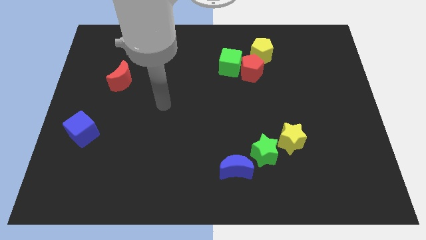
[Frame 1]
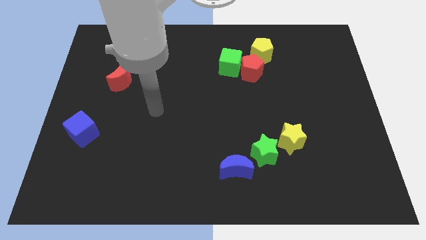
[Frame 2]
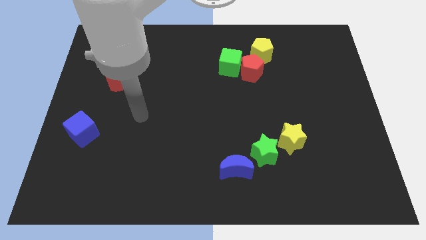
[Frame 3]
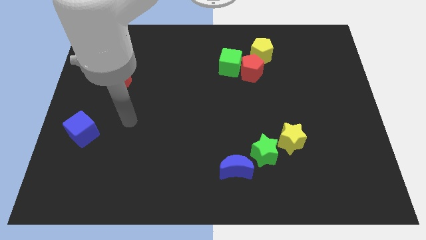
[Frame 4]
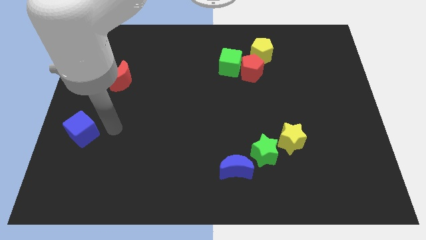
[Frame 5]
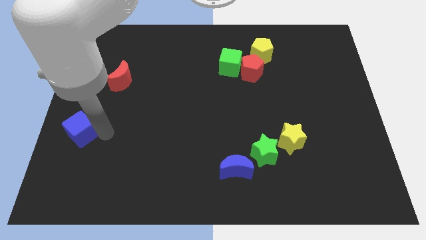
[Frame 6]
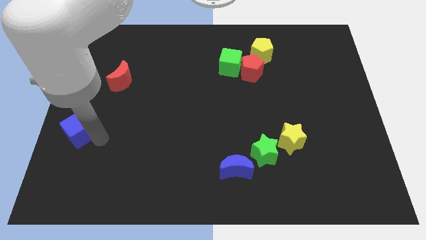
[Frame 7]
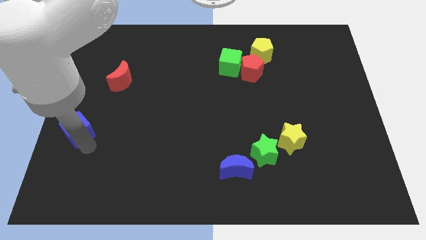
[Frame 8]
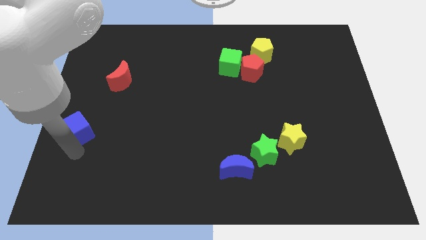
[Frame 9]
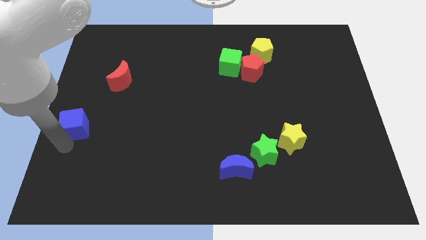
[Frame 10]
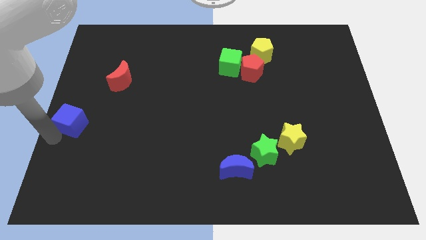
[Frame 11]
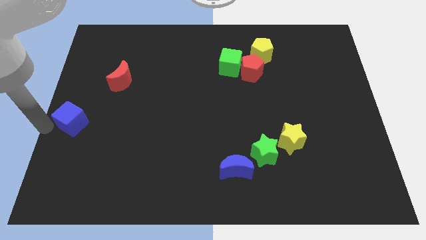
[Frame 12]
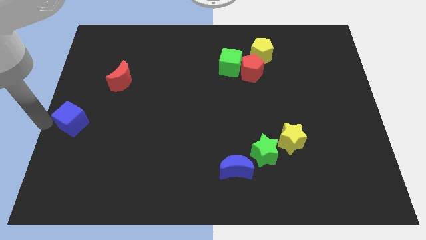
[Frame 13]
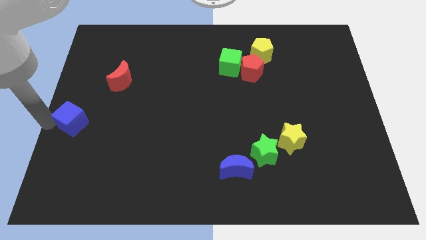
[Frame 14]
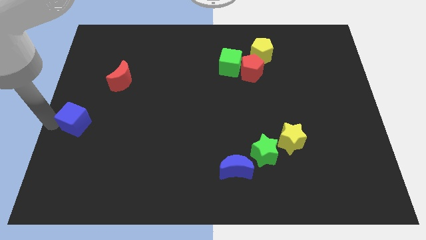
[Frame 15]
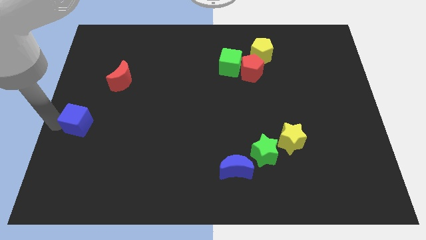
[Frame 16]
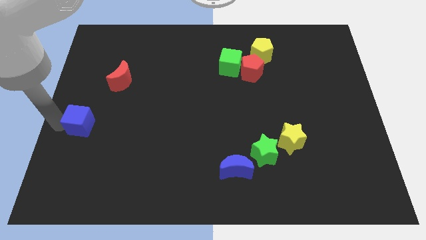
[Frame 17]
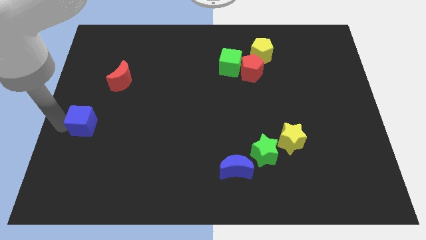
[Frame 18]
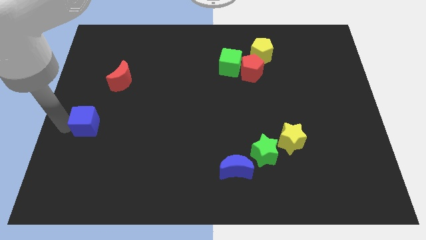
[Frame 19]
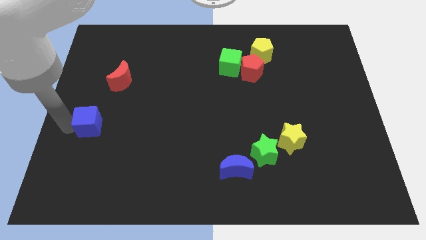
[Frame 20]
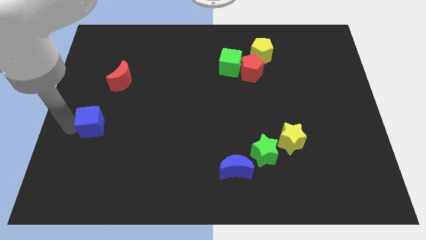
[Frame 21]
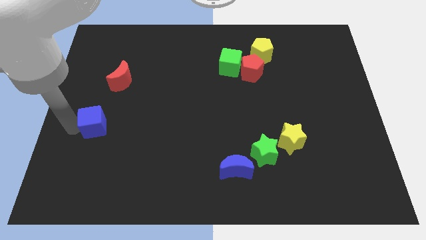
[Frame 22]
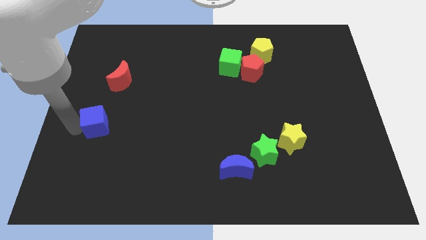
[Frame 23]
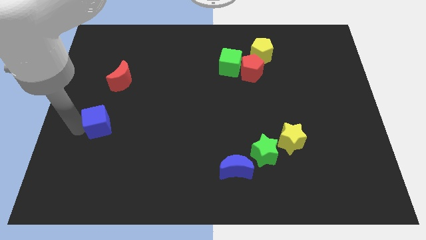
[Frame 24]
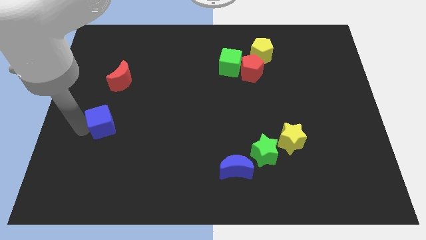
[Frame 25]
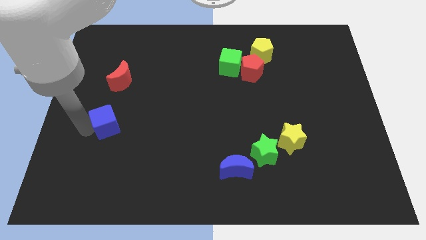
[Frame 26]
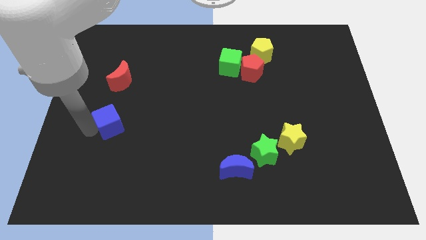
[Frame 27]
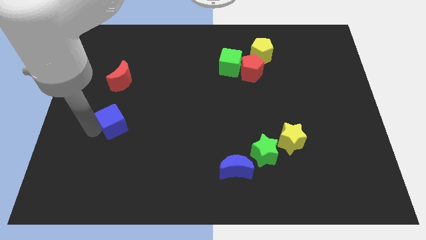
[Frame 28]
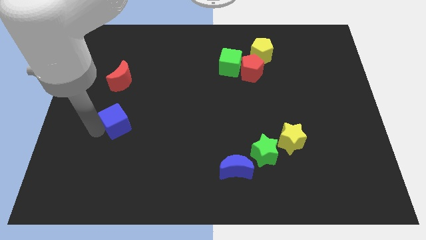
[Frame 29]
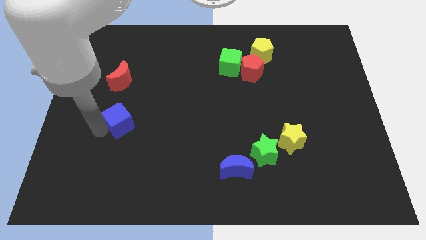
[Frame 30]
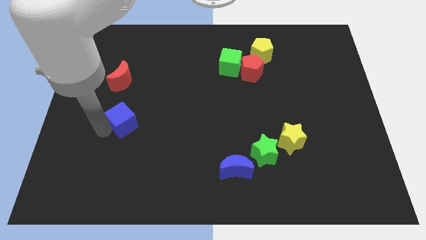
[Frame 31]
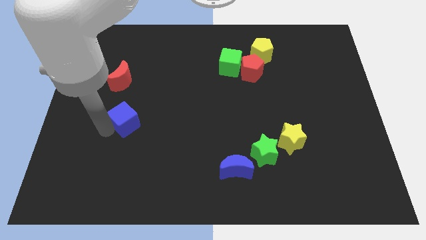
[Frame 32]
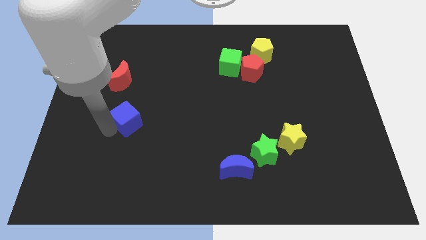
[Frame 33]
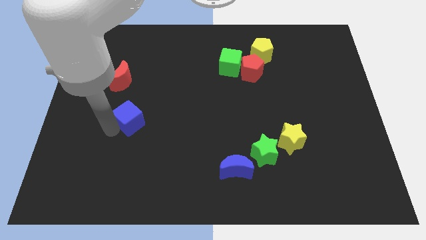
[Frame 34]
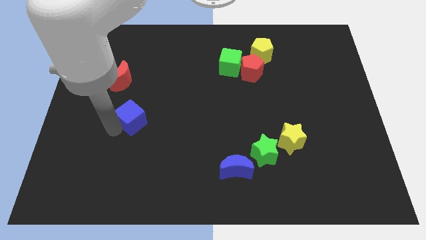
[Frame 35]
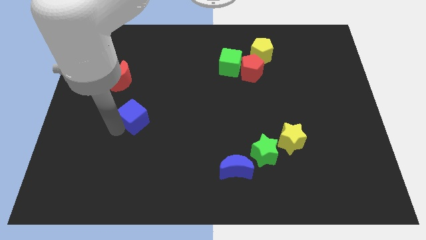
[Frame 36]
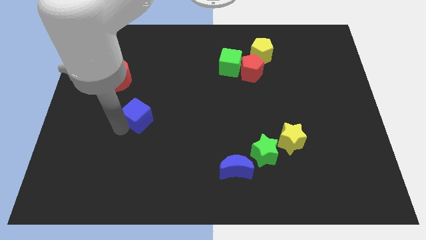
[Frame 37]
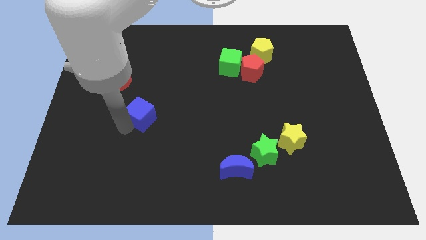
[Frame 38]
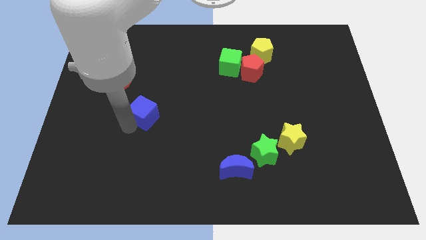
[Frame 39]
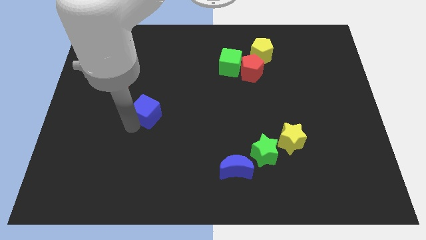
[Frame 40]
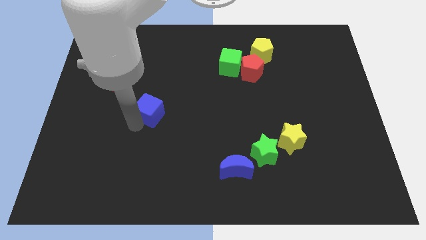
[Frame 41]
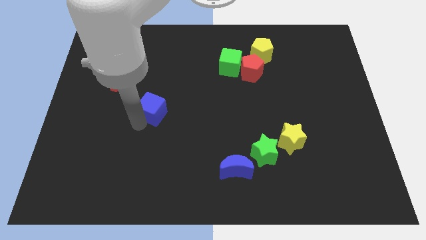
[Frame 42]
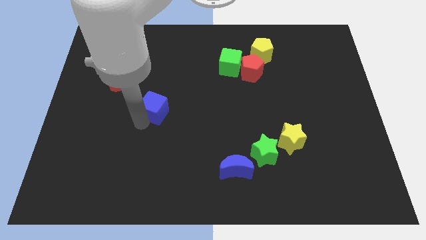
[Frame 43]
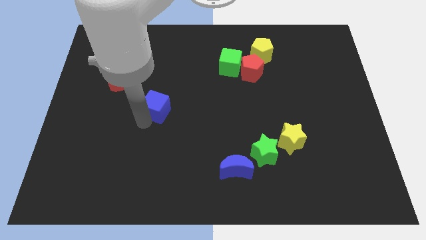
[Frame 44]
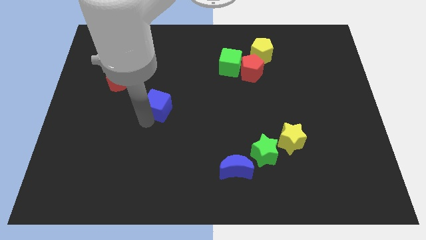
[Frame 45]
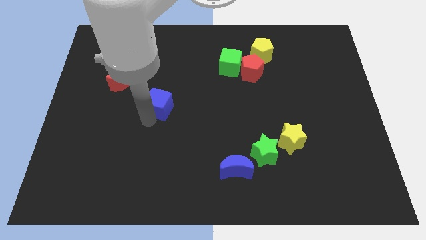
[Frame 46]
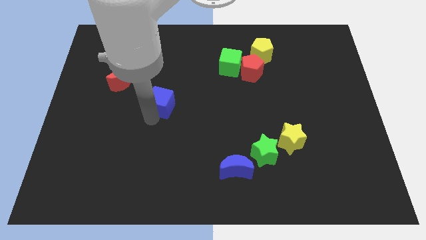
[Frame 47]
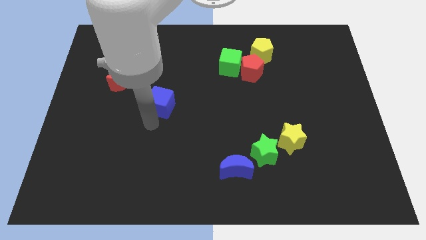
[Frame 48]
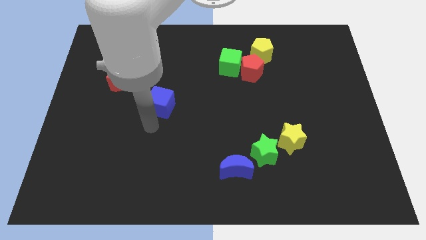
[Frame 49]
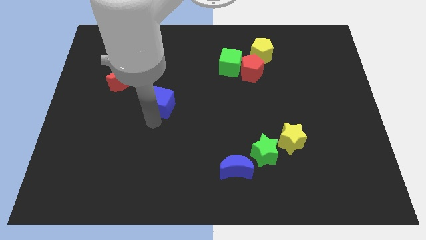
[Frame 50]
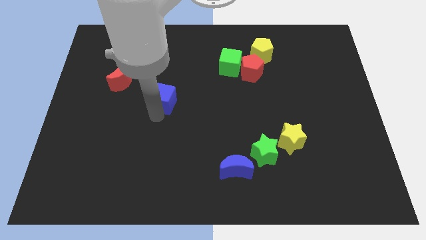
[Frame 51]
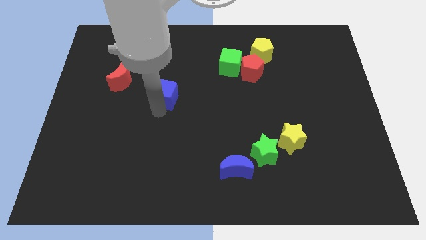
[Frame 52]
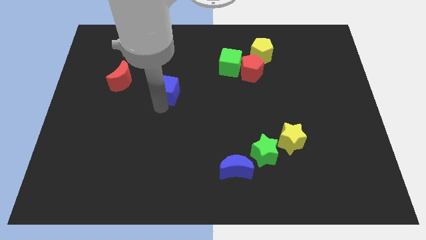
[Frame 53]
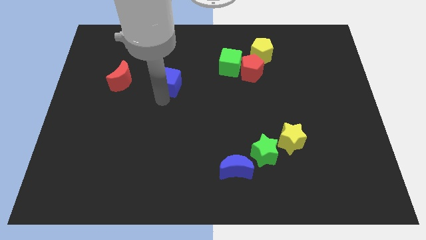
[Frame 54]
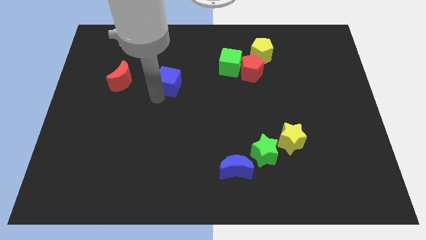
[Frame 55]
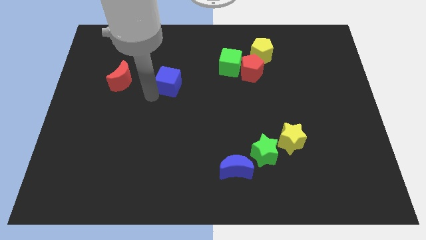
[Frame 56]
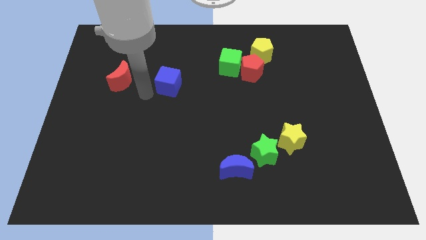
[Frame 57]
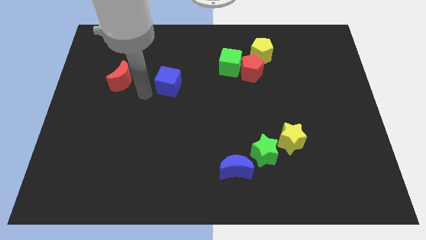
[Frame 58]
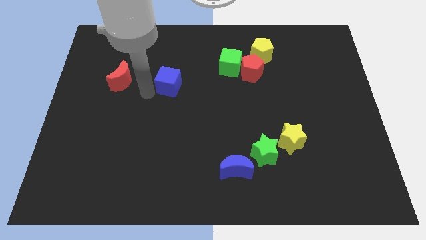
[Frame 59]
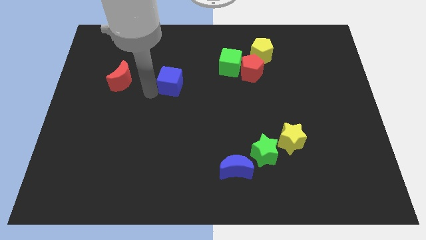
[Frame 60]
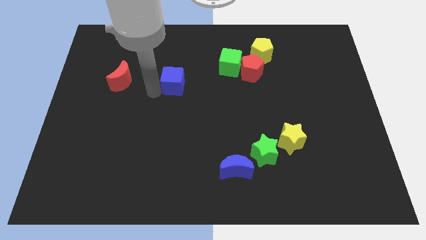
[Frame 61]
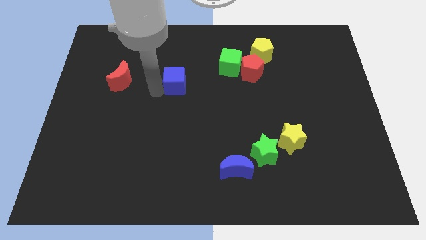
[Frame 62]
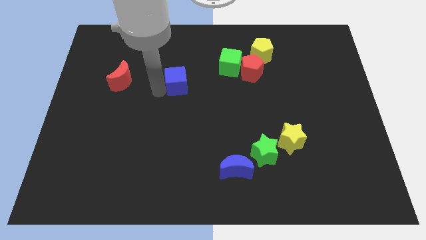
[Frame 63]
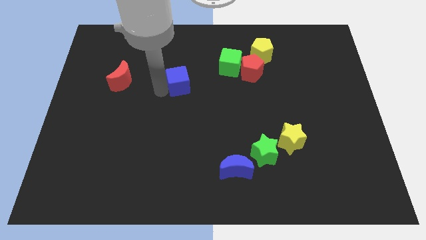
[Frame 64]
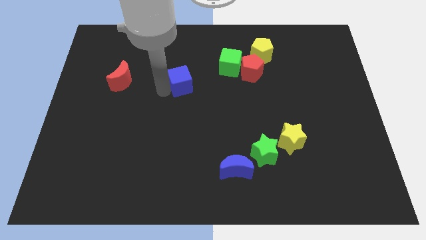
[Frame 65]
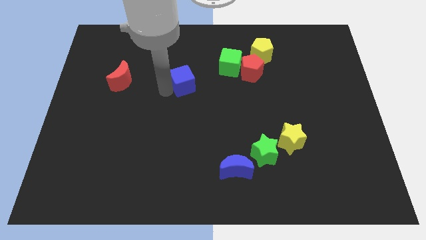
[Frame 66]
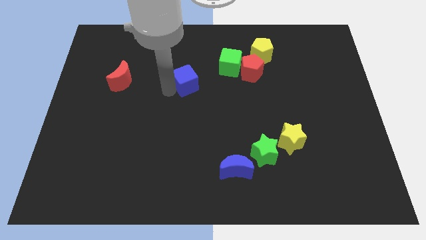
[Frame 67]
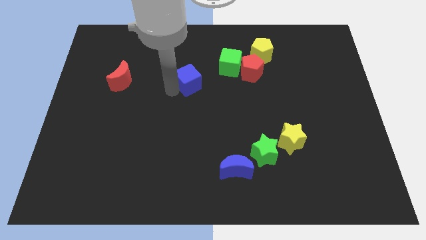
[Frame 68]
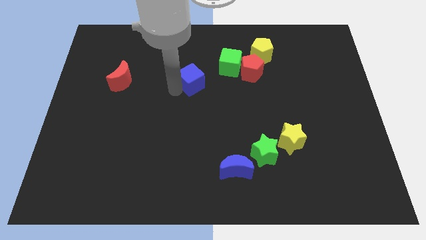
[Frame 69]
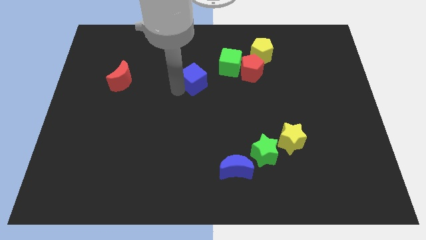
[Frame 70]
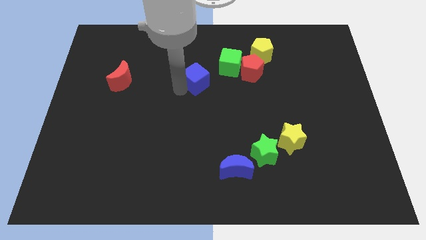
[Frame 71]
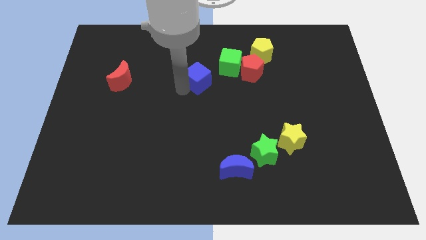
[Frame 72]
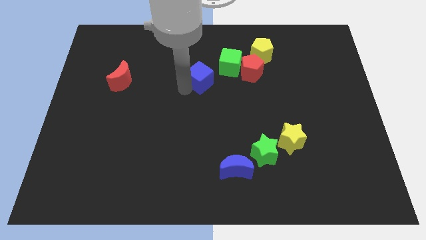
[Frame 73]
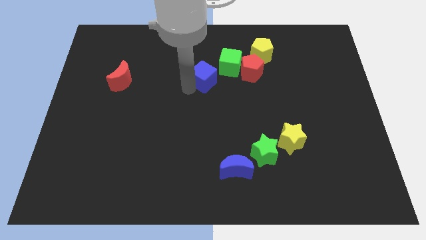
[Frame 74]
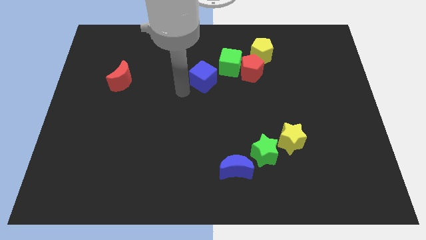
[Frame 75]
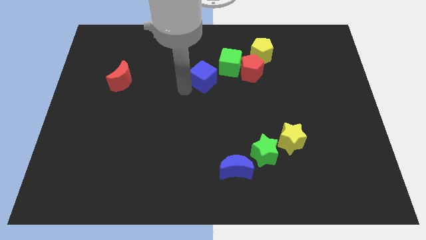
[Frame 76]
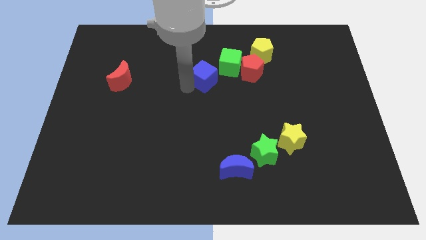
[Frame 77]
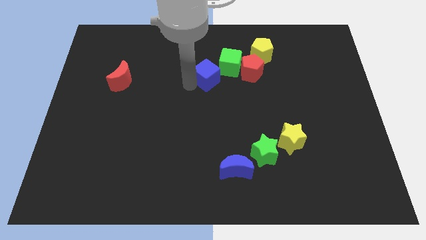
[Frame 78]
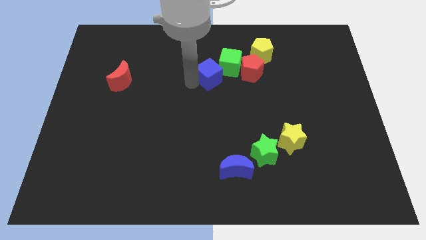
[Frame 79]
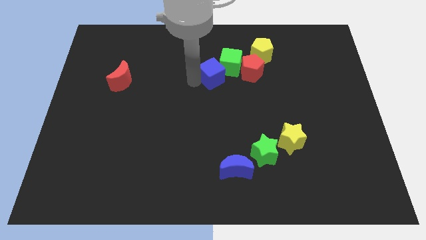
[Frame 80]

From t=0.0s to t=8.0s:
push the blue cube close to the green cube
